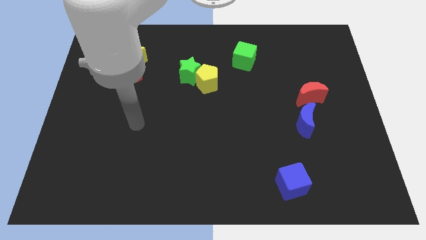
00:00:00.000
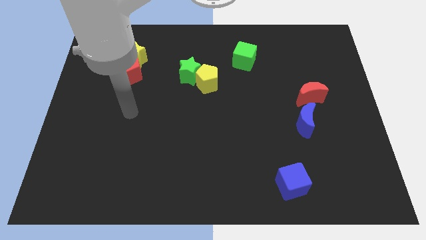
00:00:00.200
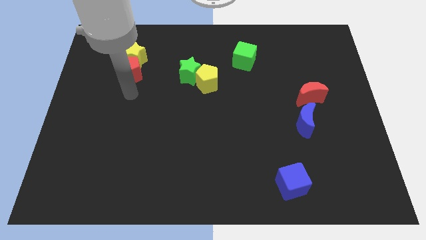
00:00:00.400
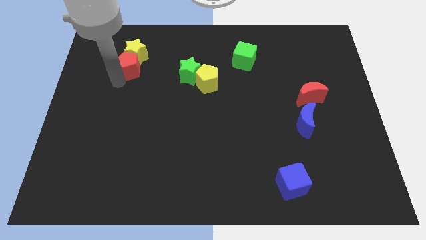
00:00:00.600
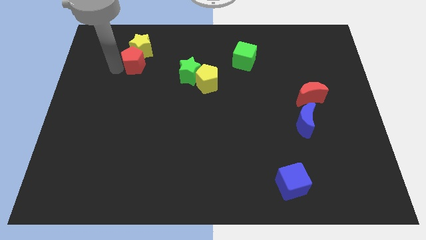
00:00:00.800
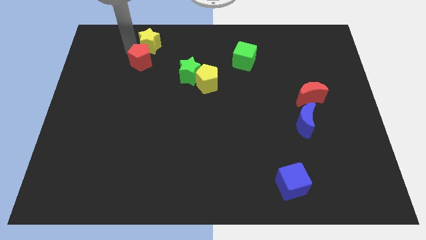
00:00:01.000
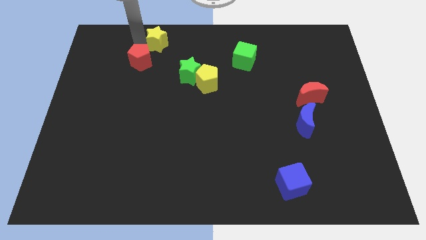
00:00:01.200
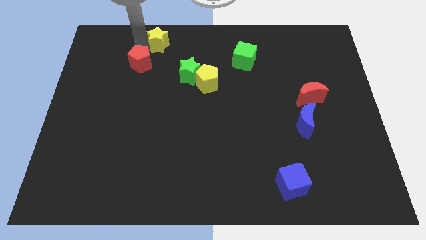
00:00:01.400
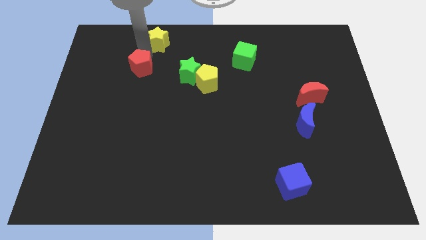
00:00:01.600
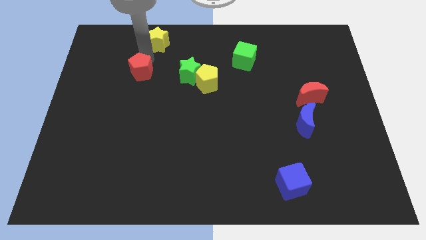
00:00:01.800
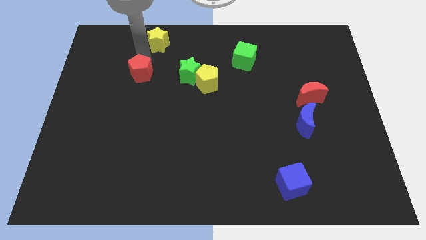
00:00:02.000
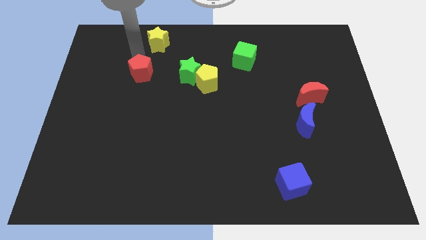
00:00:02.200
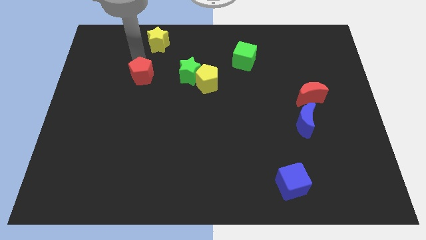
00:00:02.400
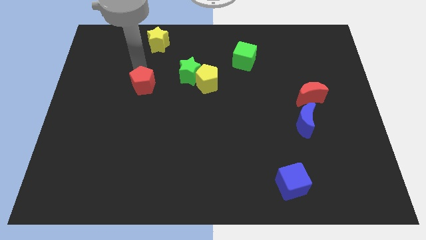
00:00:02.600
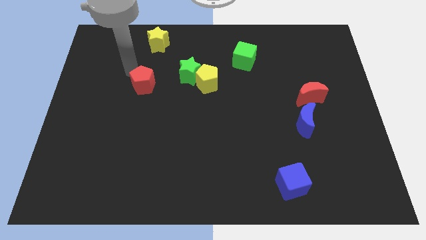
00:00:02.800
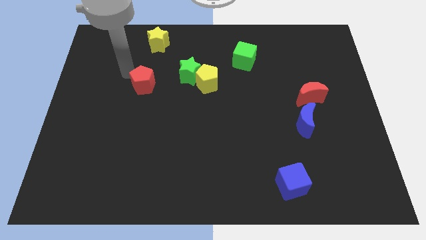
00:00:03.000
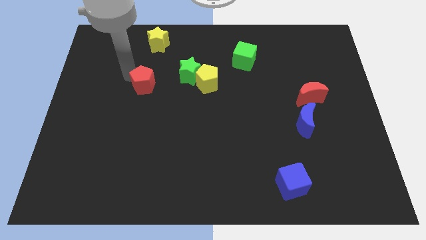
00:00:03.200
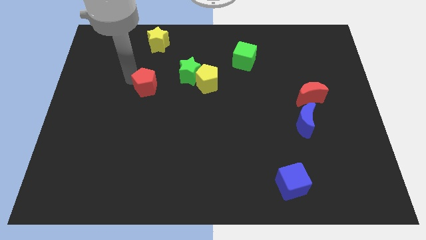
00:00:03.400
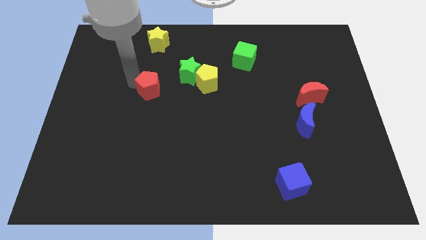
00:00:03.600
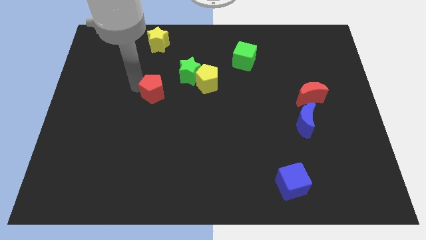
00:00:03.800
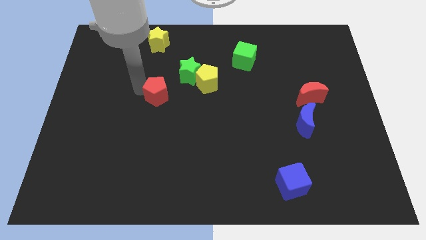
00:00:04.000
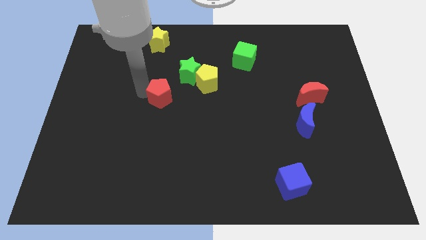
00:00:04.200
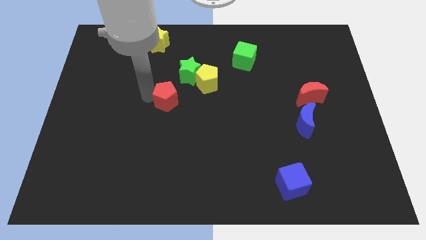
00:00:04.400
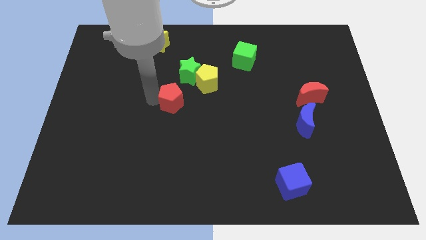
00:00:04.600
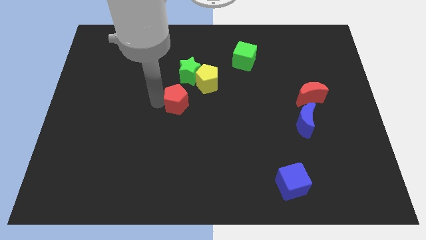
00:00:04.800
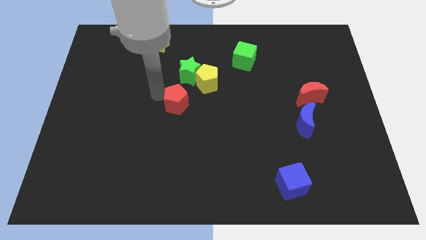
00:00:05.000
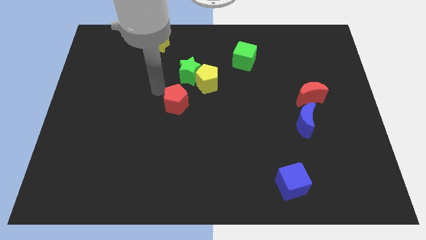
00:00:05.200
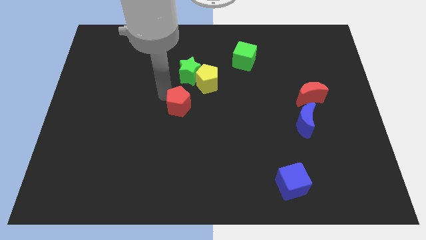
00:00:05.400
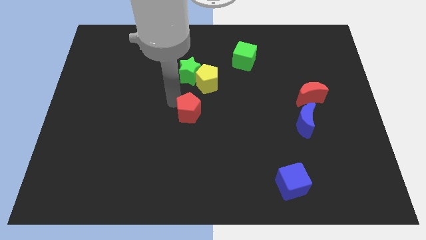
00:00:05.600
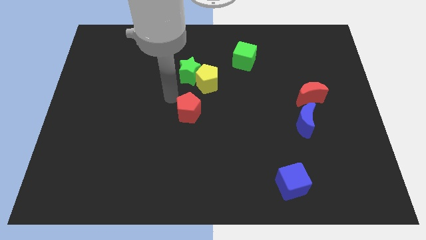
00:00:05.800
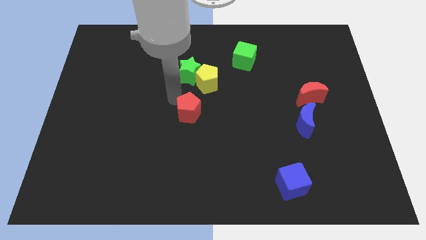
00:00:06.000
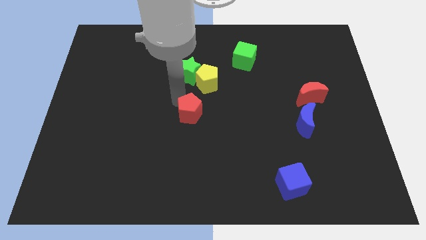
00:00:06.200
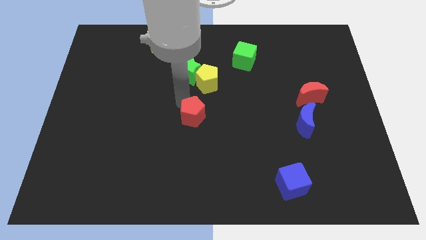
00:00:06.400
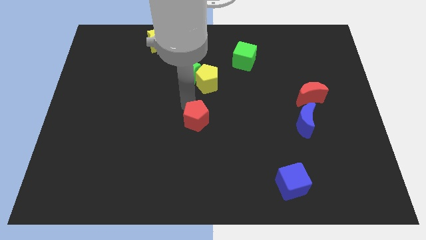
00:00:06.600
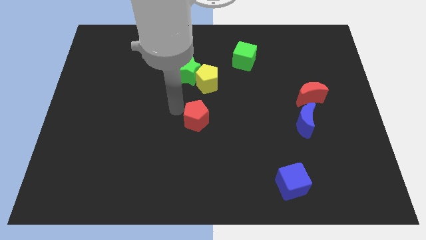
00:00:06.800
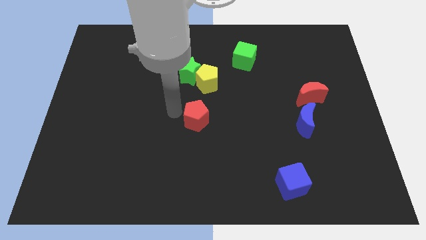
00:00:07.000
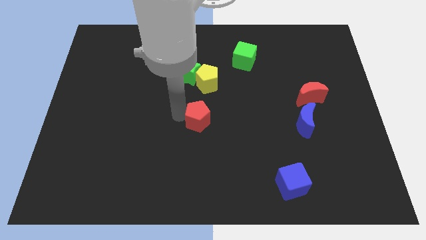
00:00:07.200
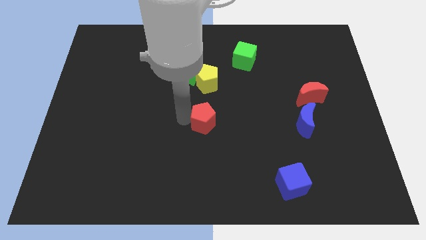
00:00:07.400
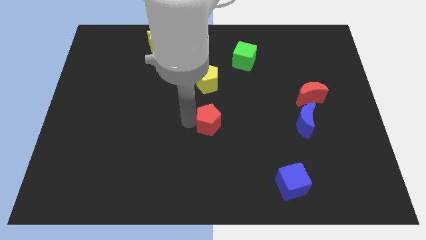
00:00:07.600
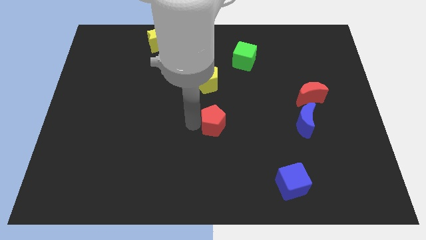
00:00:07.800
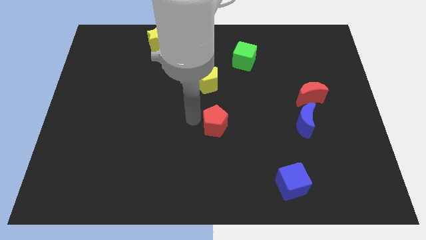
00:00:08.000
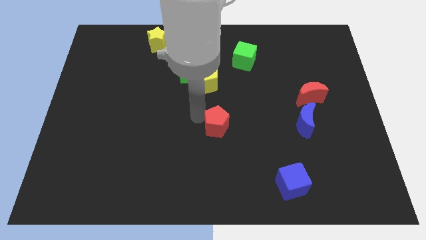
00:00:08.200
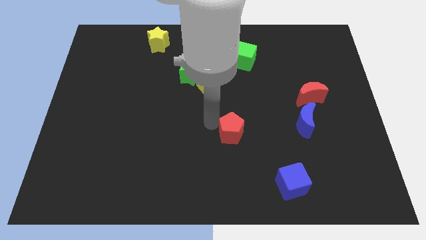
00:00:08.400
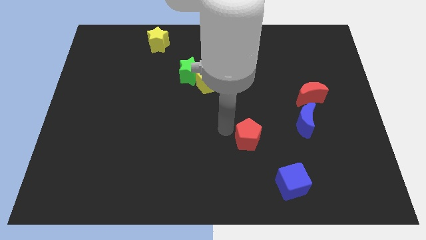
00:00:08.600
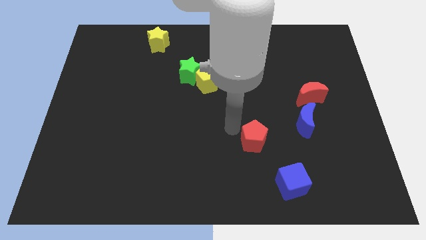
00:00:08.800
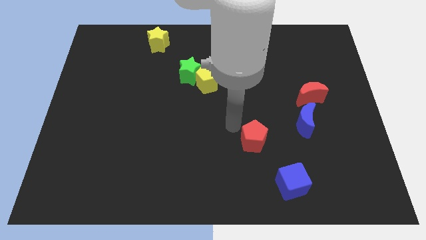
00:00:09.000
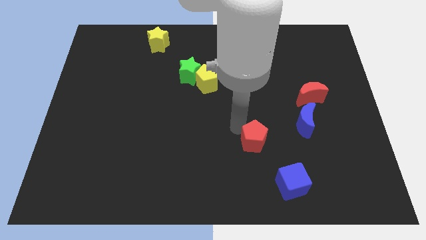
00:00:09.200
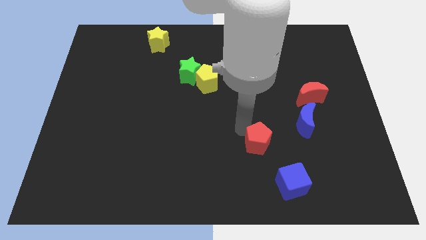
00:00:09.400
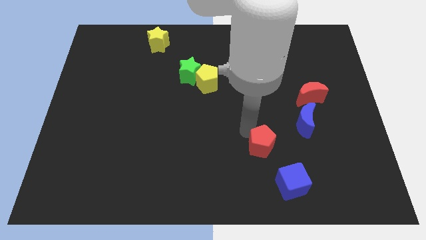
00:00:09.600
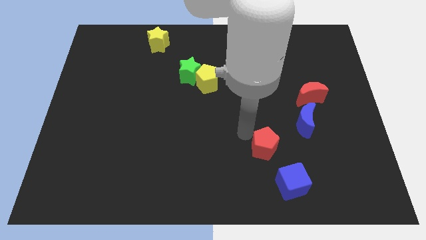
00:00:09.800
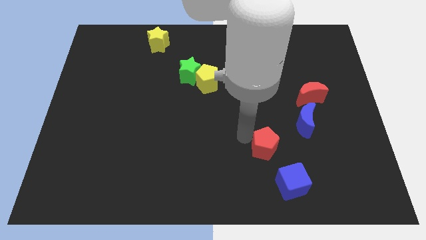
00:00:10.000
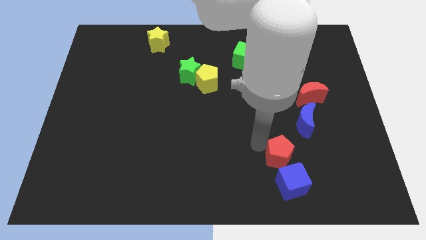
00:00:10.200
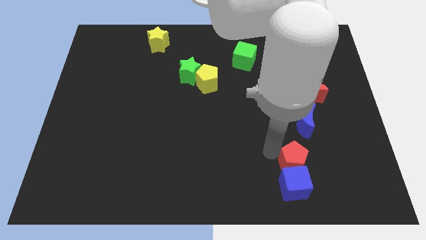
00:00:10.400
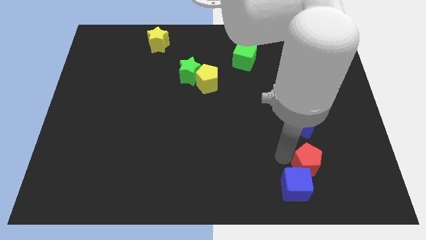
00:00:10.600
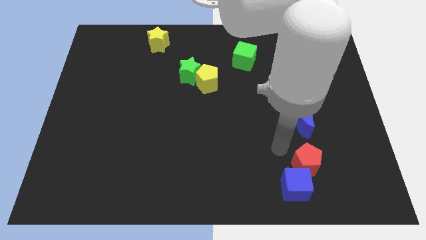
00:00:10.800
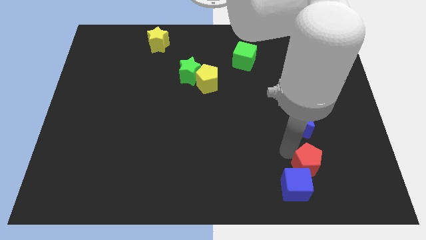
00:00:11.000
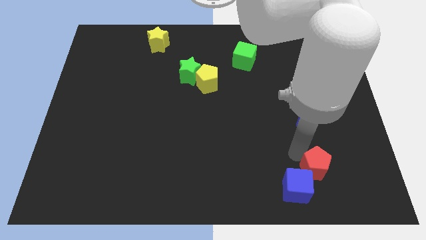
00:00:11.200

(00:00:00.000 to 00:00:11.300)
push the red pentagon to the right side of the blue cube

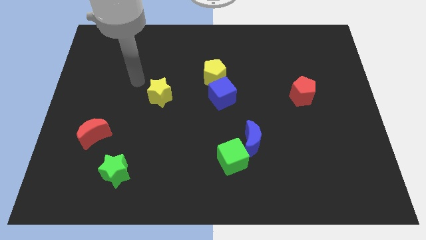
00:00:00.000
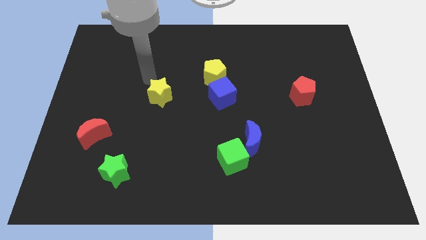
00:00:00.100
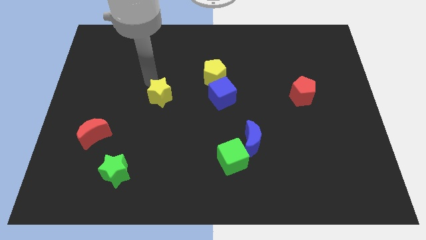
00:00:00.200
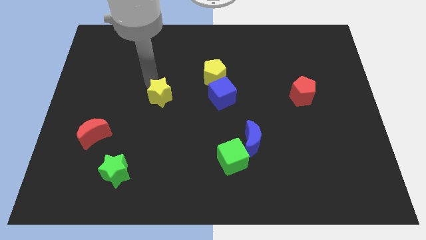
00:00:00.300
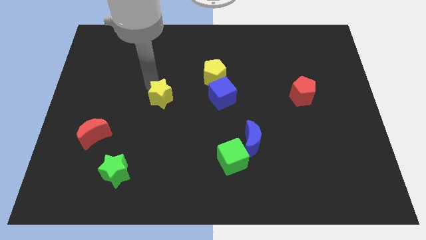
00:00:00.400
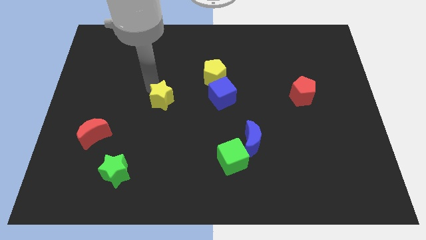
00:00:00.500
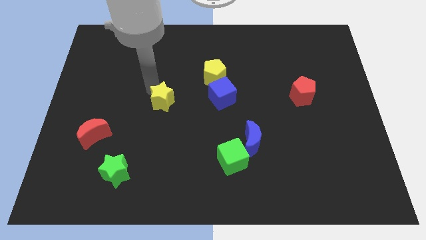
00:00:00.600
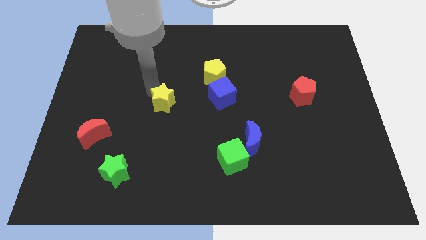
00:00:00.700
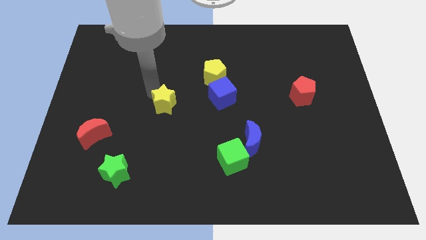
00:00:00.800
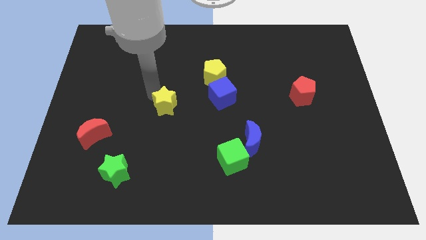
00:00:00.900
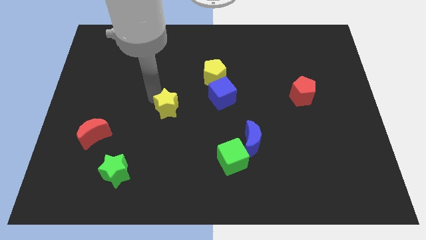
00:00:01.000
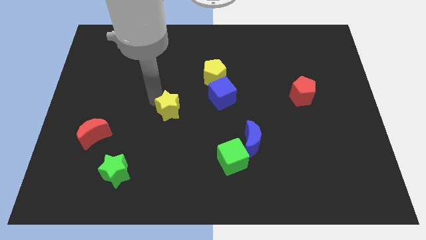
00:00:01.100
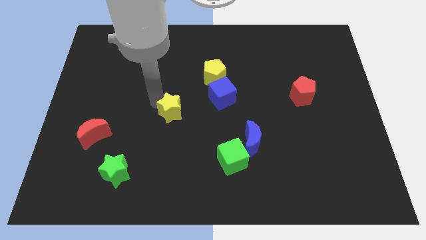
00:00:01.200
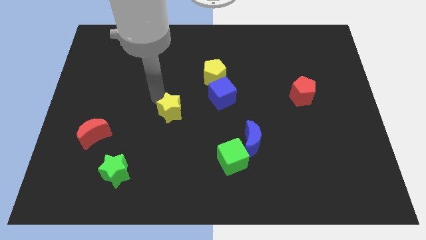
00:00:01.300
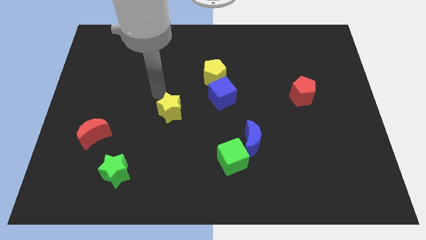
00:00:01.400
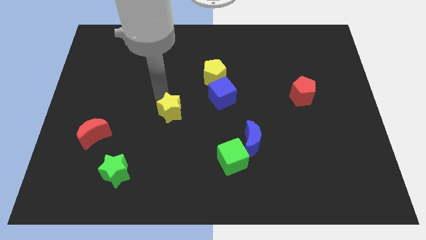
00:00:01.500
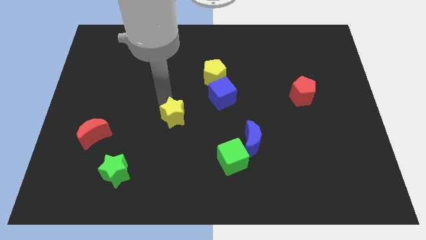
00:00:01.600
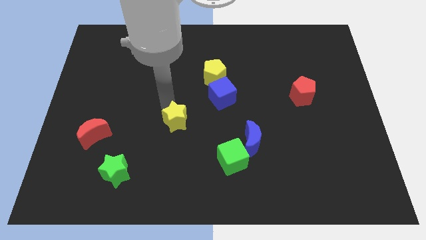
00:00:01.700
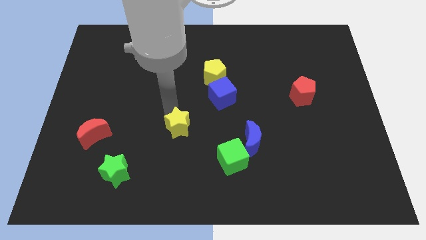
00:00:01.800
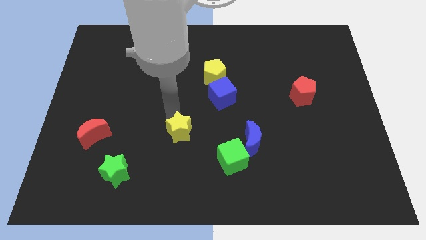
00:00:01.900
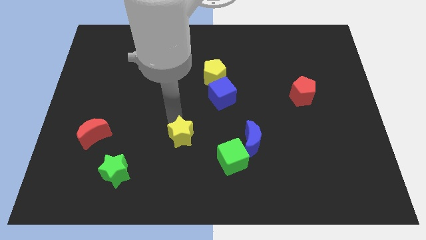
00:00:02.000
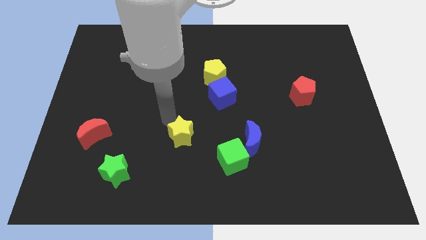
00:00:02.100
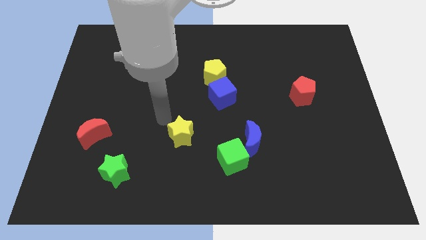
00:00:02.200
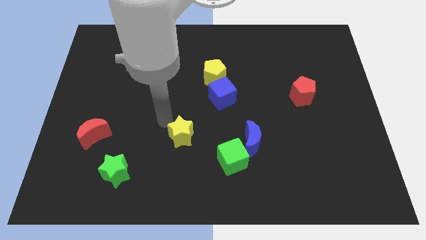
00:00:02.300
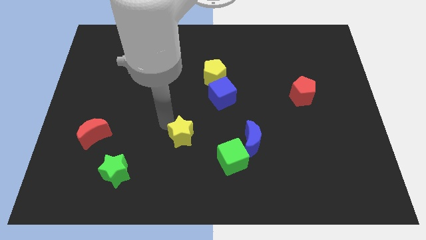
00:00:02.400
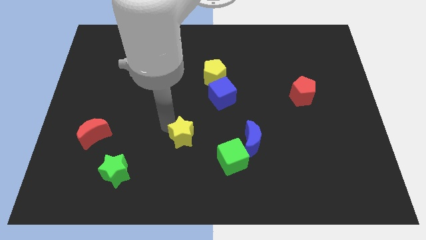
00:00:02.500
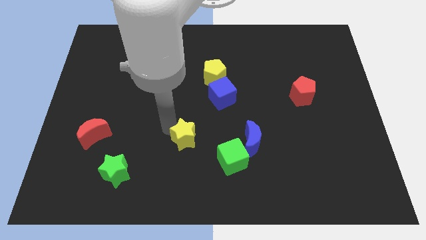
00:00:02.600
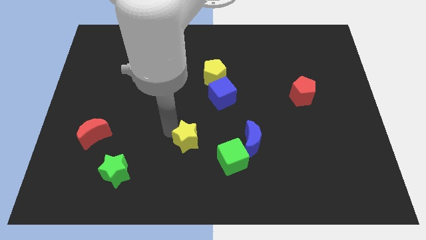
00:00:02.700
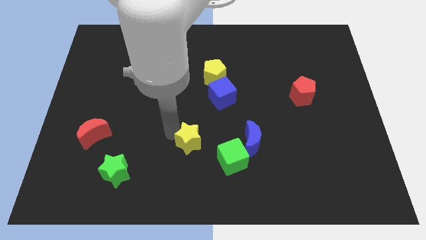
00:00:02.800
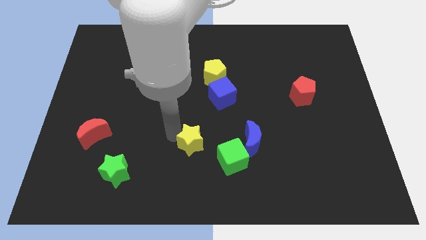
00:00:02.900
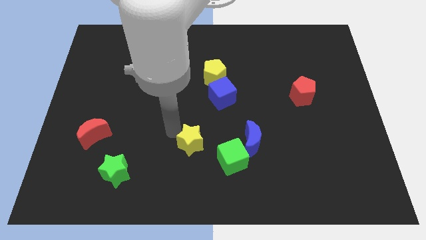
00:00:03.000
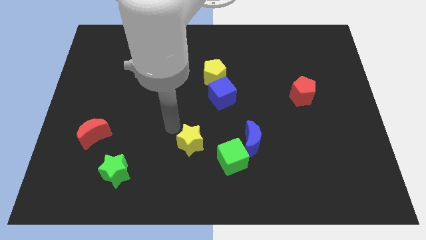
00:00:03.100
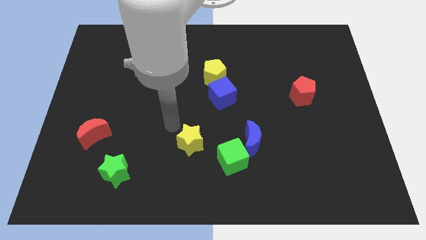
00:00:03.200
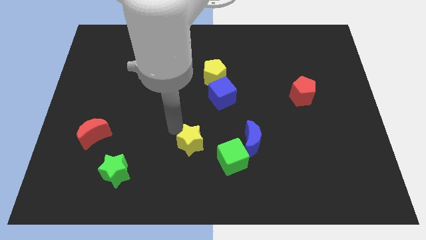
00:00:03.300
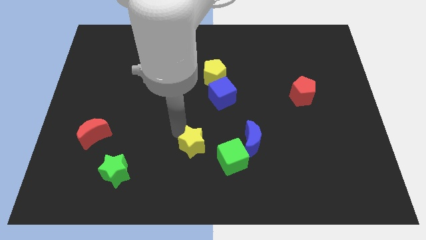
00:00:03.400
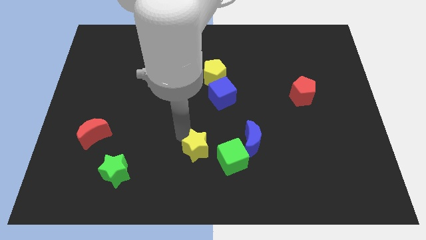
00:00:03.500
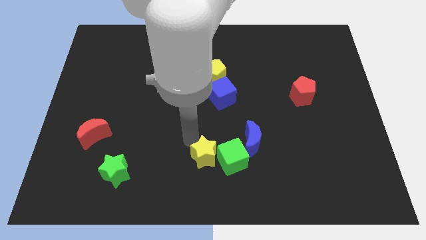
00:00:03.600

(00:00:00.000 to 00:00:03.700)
put the yellow star to the bottom left of the green cube
